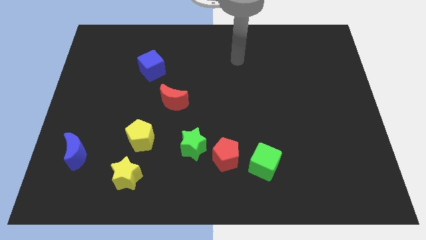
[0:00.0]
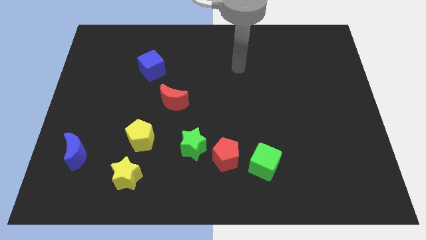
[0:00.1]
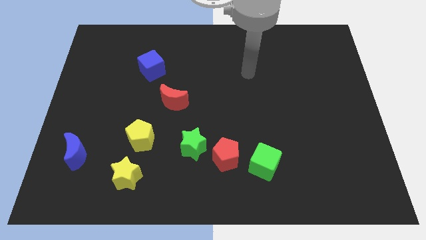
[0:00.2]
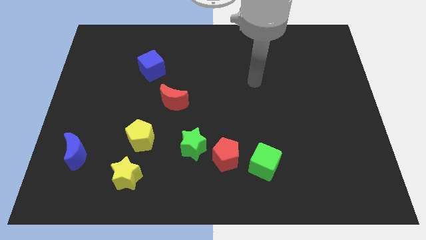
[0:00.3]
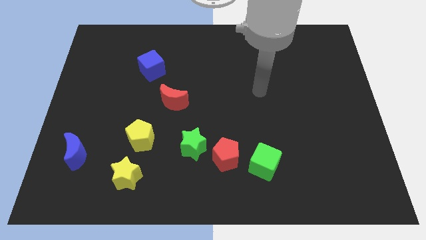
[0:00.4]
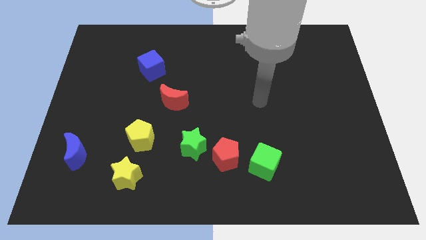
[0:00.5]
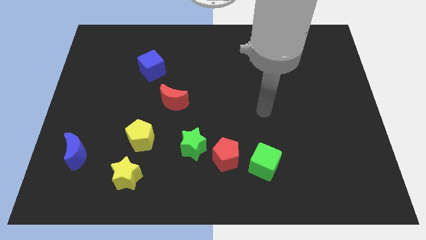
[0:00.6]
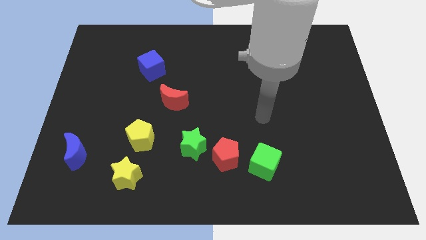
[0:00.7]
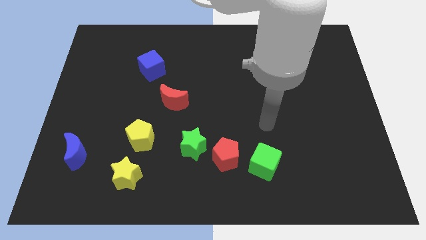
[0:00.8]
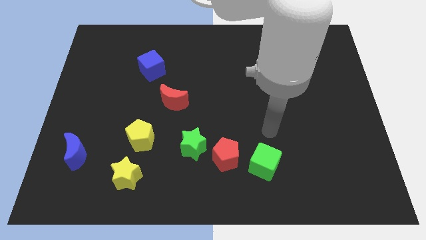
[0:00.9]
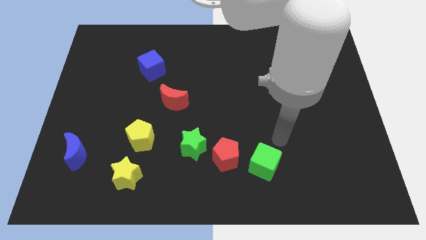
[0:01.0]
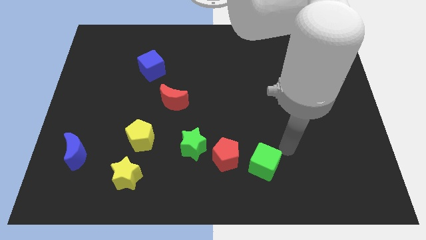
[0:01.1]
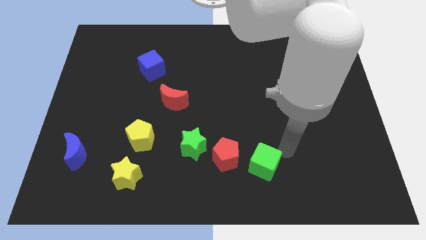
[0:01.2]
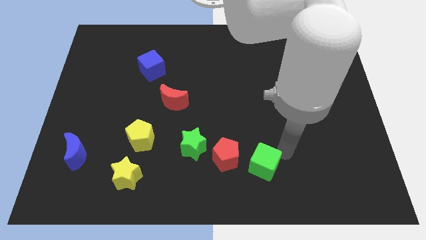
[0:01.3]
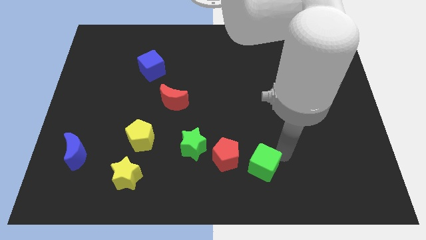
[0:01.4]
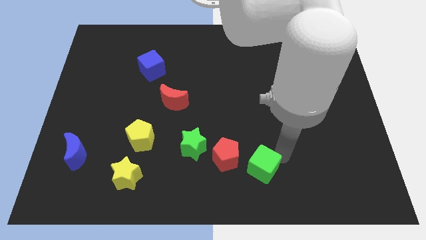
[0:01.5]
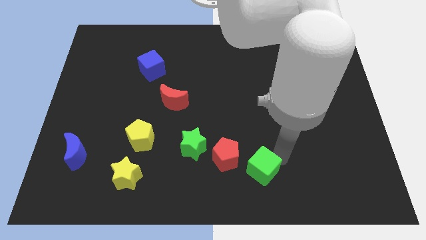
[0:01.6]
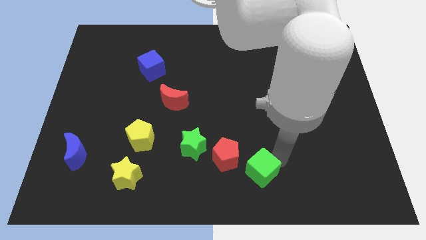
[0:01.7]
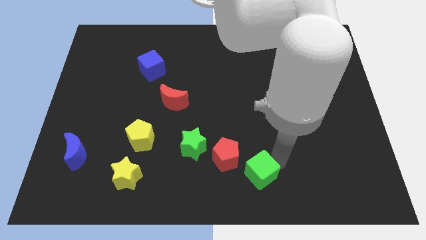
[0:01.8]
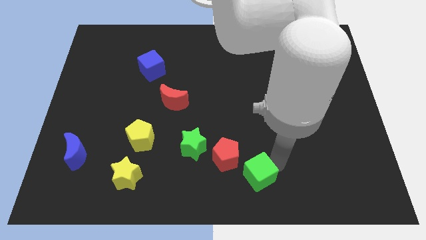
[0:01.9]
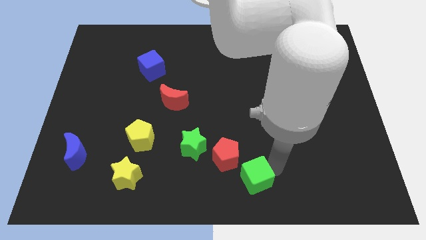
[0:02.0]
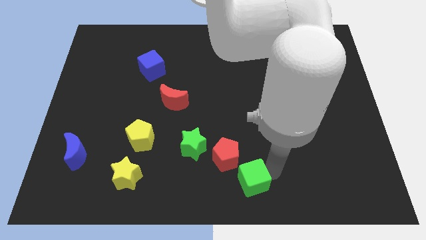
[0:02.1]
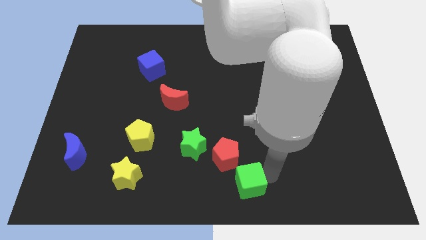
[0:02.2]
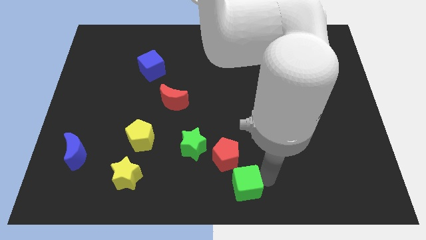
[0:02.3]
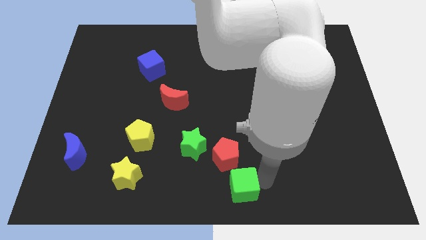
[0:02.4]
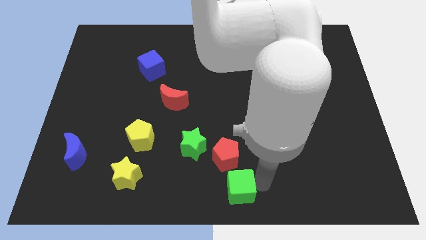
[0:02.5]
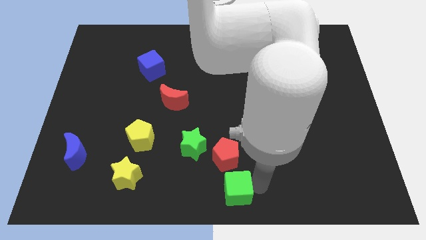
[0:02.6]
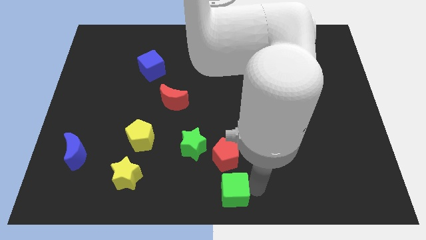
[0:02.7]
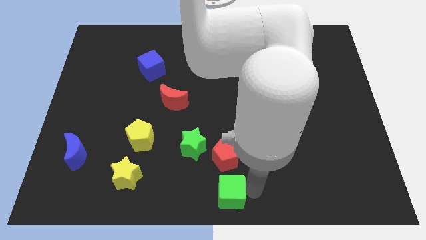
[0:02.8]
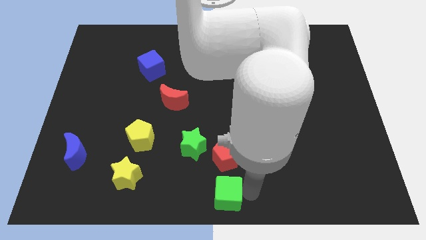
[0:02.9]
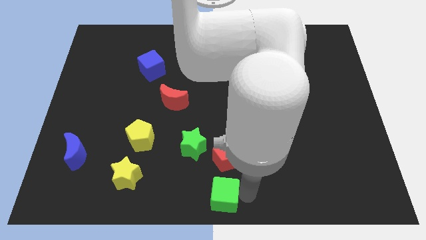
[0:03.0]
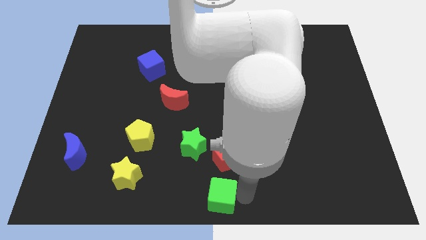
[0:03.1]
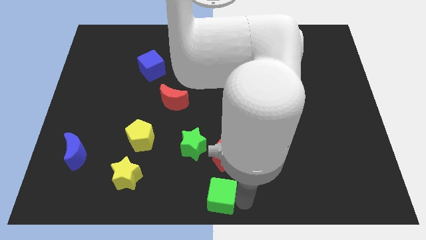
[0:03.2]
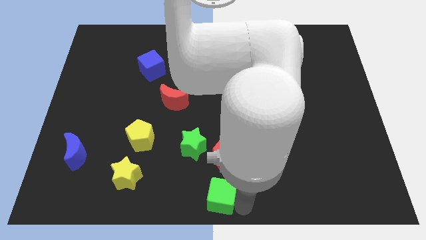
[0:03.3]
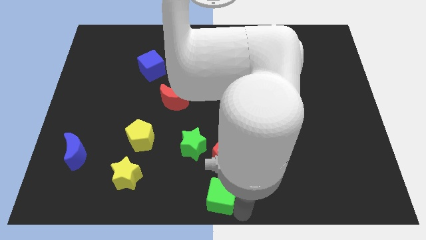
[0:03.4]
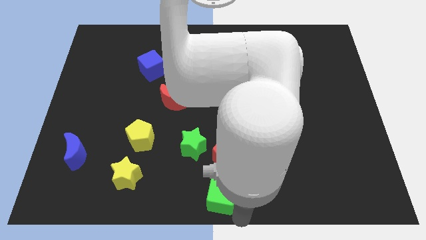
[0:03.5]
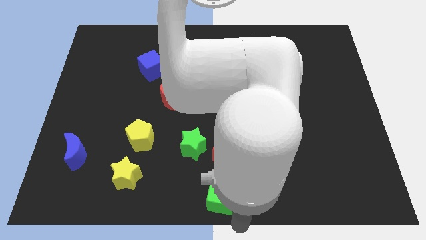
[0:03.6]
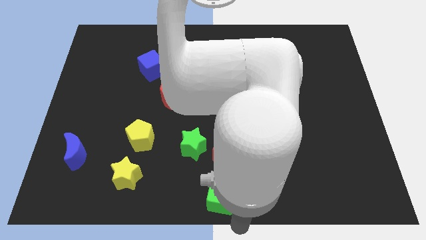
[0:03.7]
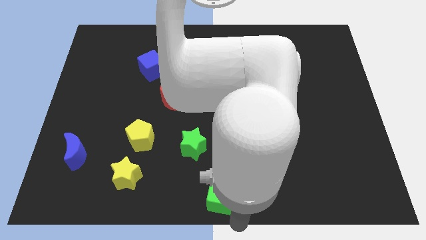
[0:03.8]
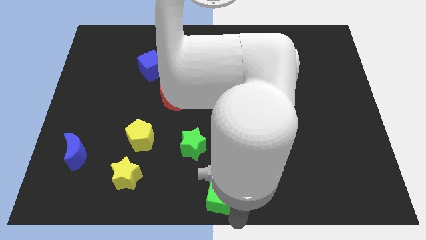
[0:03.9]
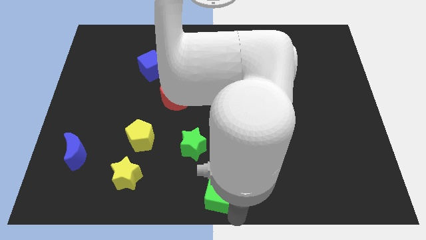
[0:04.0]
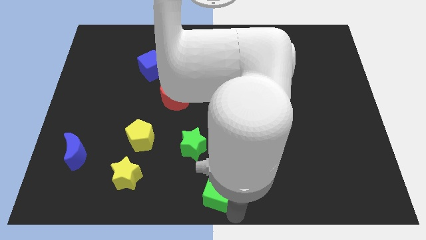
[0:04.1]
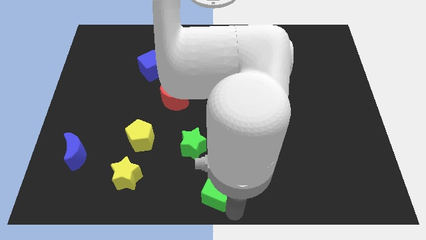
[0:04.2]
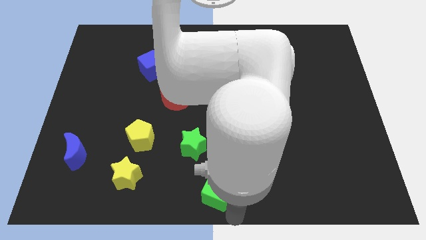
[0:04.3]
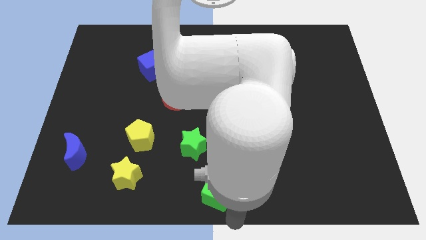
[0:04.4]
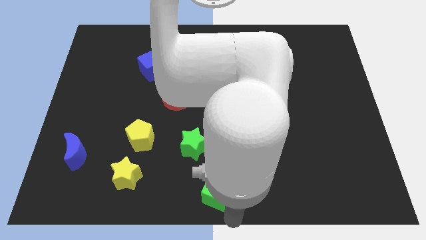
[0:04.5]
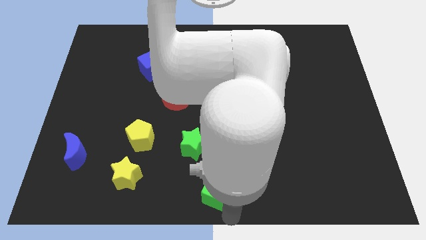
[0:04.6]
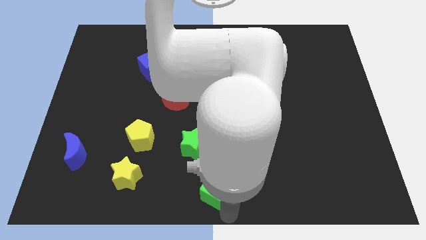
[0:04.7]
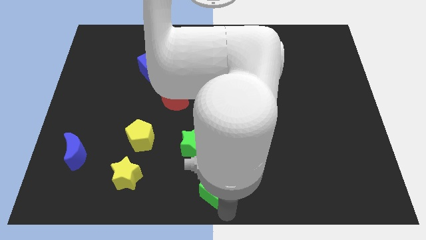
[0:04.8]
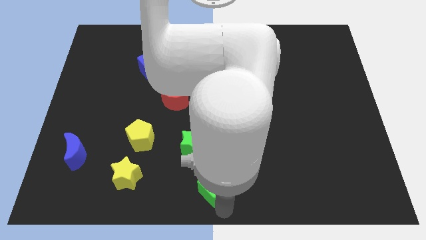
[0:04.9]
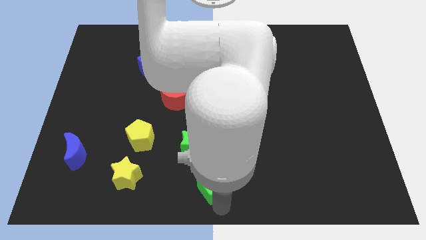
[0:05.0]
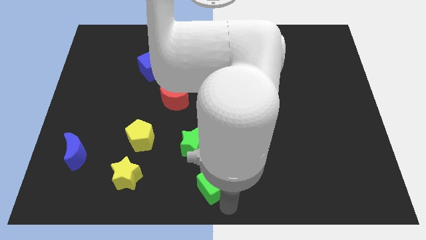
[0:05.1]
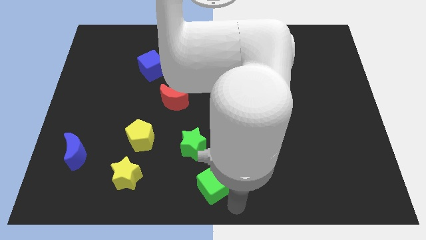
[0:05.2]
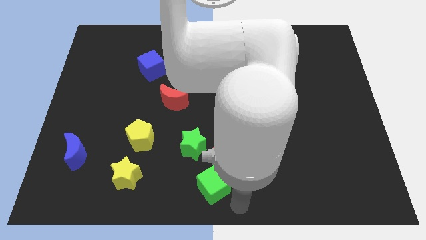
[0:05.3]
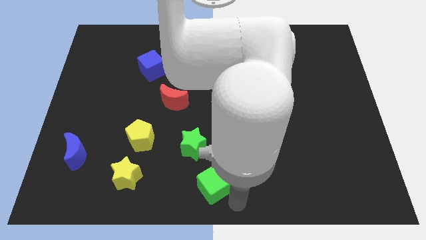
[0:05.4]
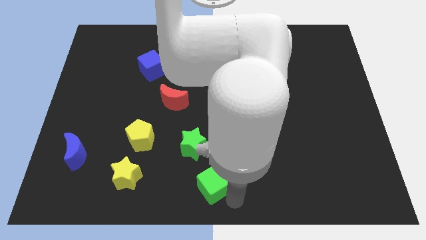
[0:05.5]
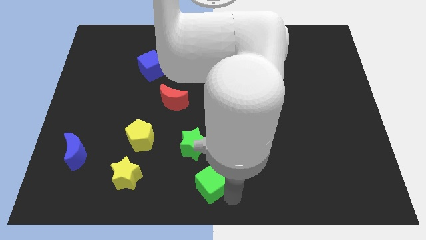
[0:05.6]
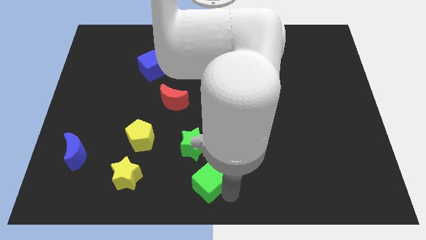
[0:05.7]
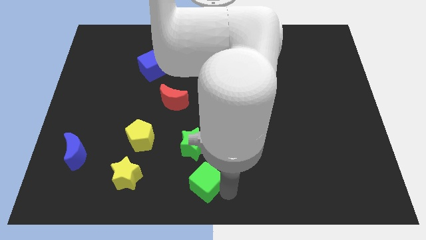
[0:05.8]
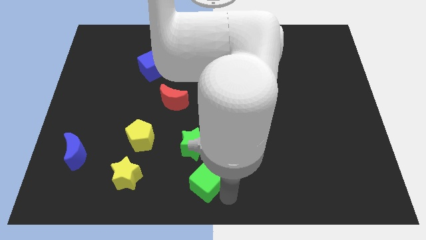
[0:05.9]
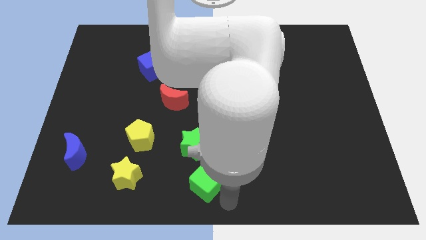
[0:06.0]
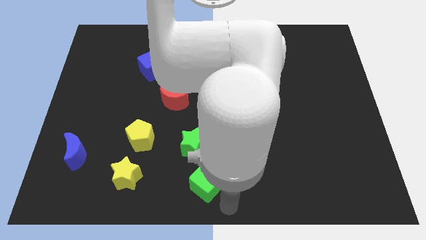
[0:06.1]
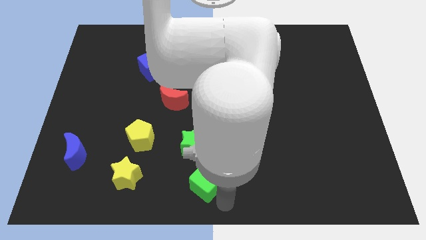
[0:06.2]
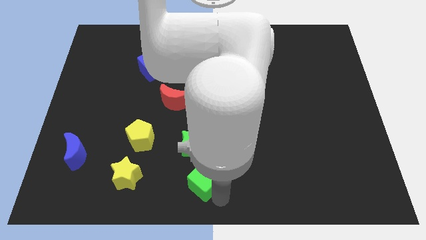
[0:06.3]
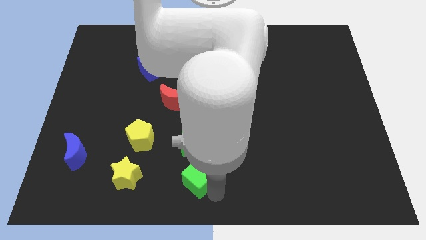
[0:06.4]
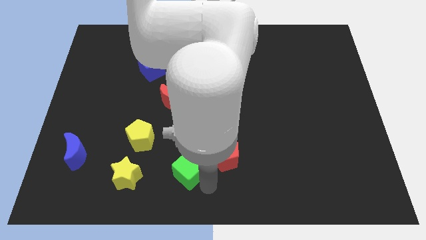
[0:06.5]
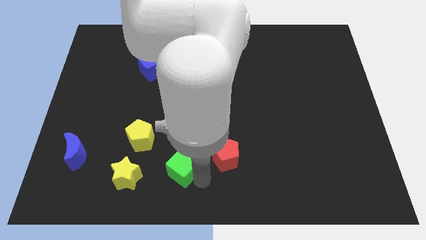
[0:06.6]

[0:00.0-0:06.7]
move the green cube to the bottom right of the yellow pentagon
